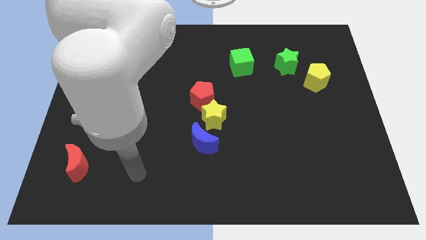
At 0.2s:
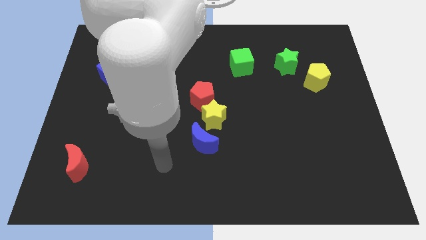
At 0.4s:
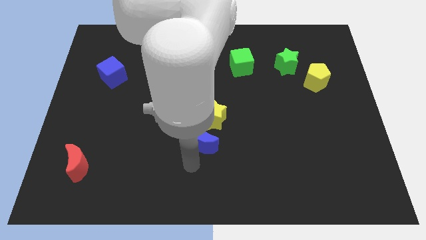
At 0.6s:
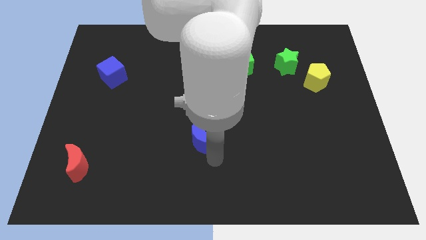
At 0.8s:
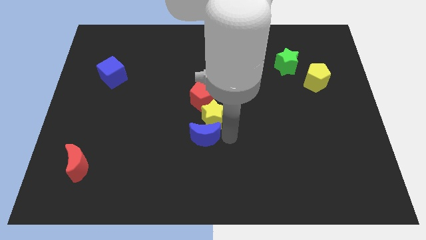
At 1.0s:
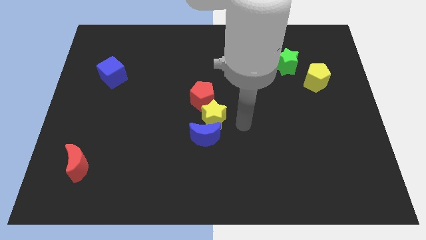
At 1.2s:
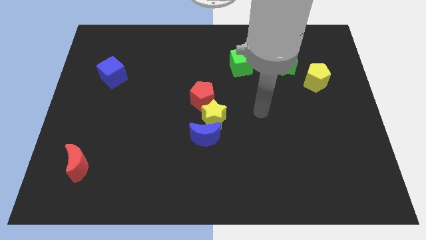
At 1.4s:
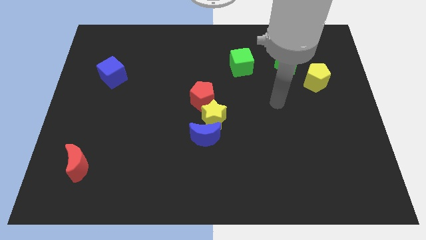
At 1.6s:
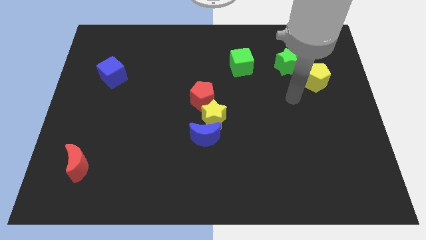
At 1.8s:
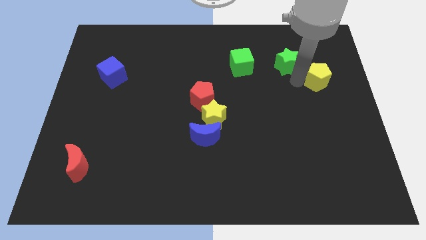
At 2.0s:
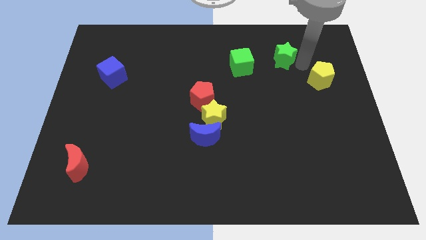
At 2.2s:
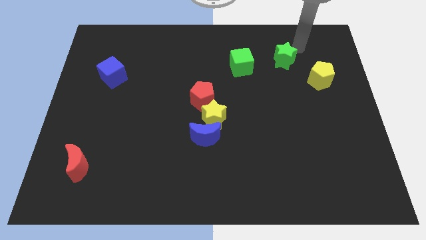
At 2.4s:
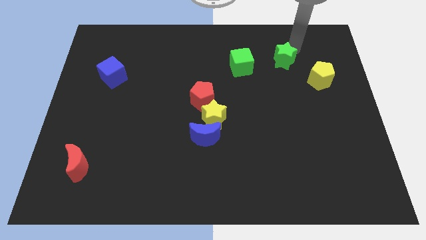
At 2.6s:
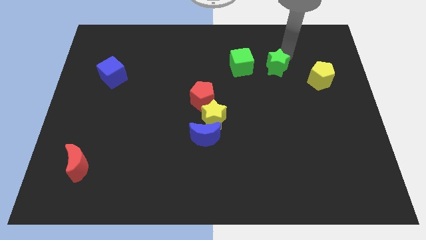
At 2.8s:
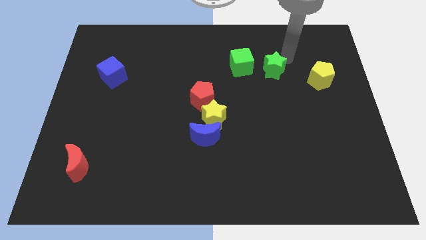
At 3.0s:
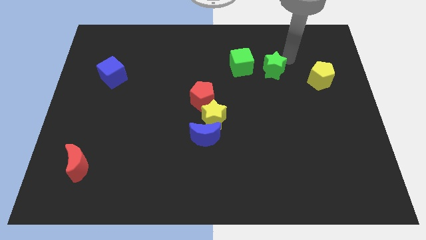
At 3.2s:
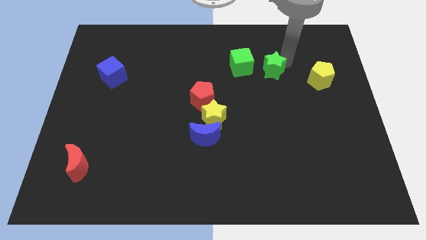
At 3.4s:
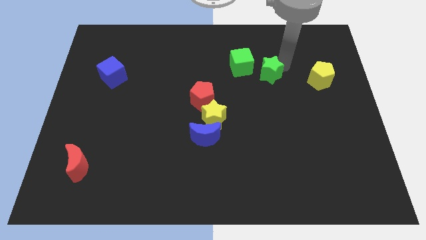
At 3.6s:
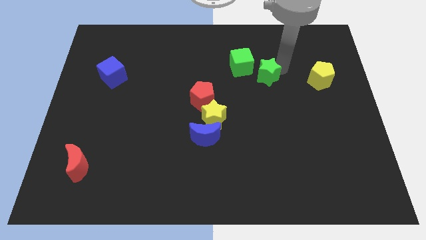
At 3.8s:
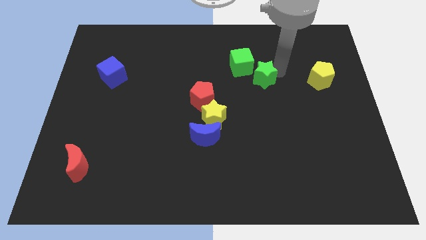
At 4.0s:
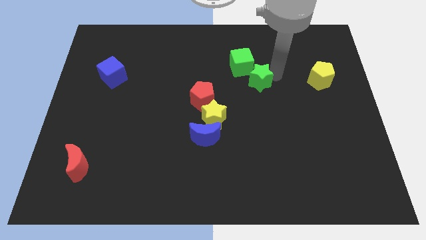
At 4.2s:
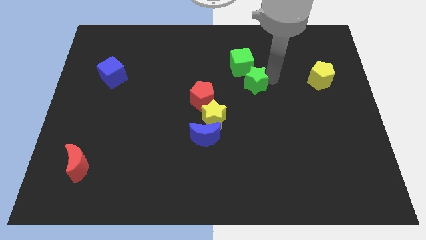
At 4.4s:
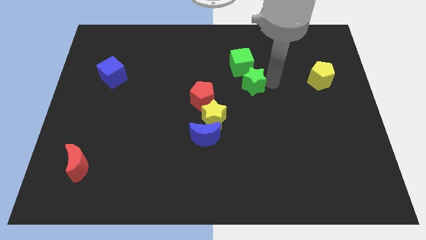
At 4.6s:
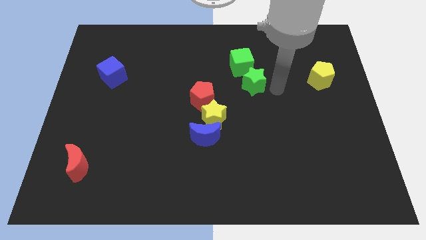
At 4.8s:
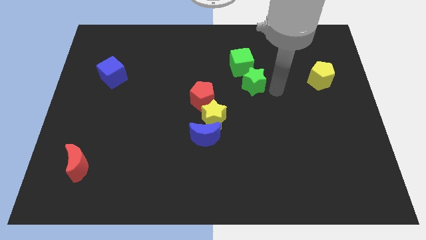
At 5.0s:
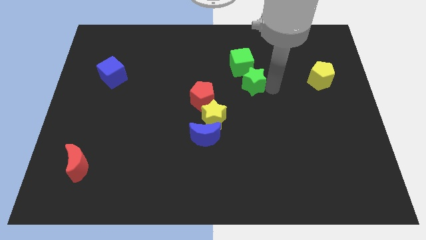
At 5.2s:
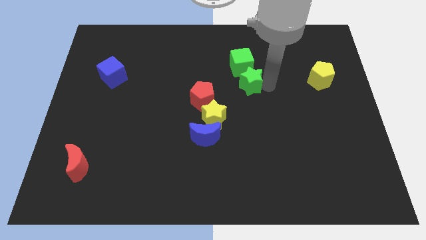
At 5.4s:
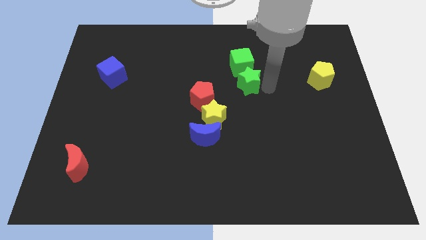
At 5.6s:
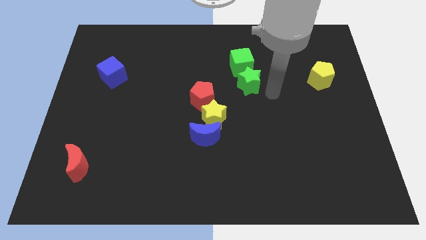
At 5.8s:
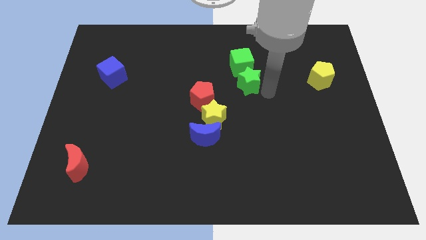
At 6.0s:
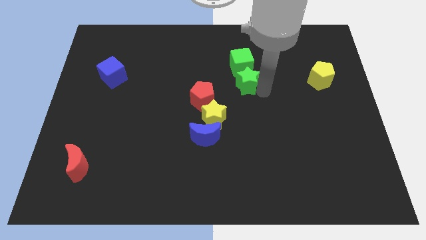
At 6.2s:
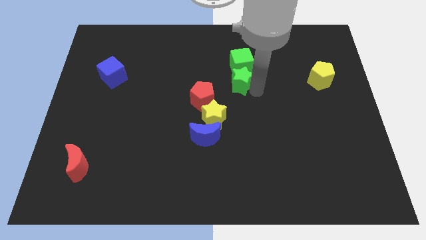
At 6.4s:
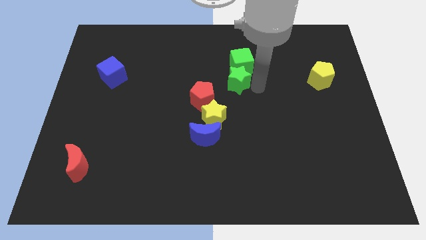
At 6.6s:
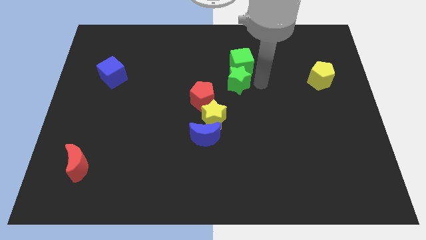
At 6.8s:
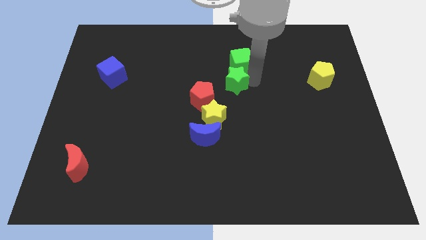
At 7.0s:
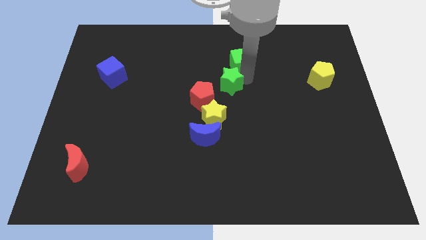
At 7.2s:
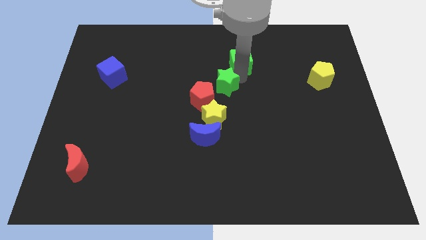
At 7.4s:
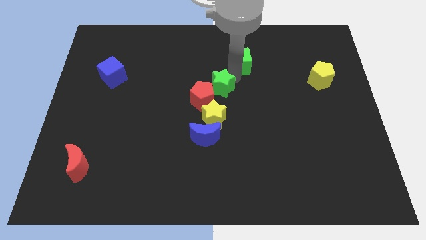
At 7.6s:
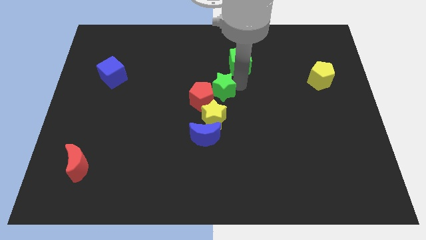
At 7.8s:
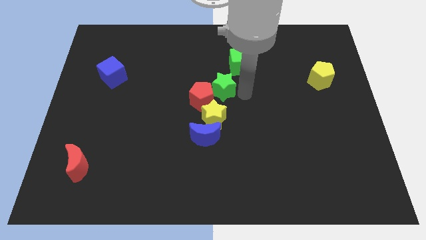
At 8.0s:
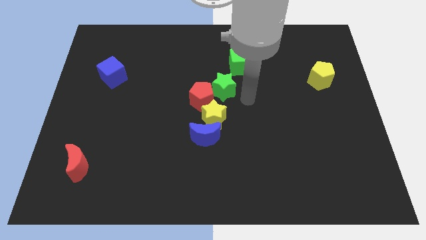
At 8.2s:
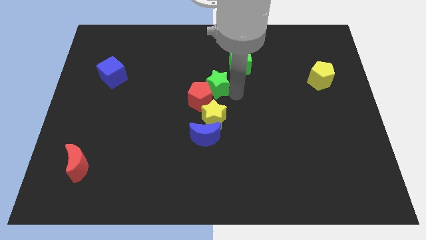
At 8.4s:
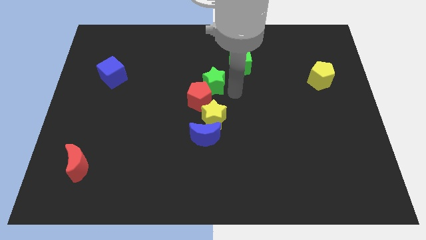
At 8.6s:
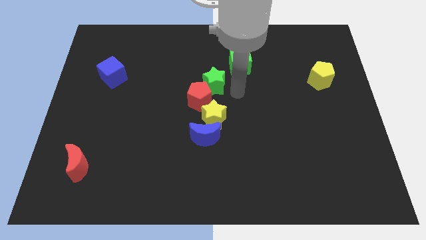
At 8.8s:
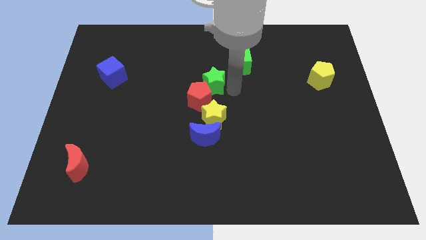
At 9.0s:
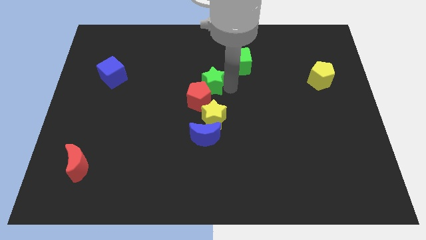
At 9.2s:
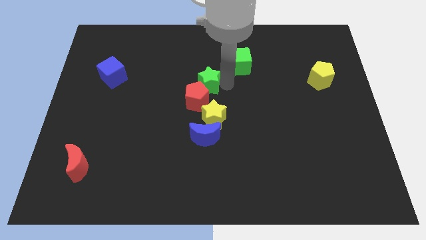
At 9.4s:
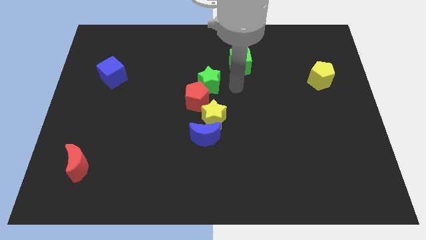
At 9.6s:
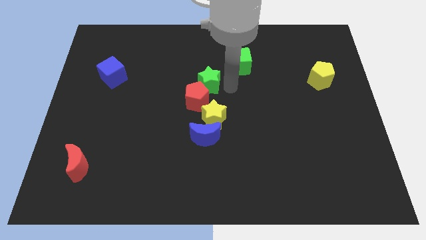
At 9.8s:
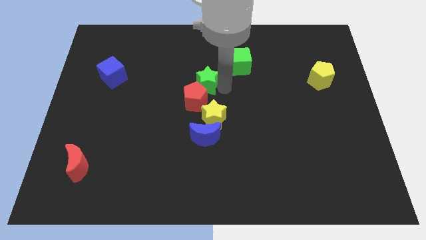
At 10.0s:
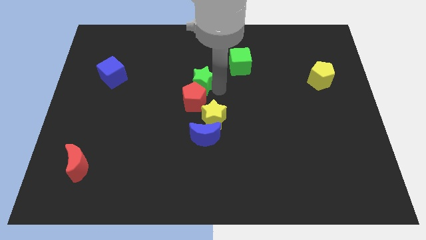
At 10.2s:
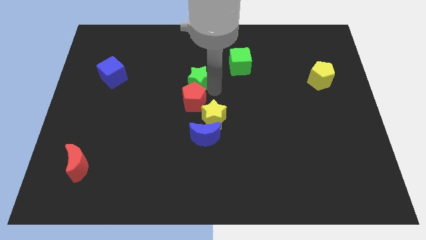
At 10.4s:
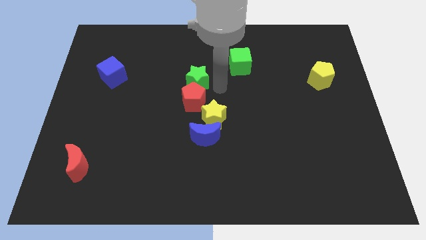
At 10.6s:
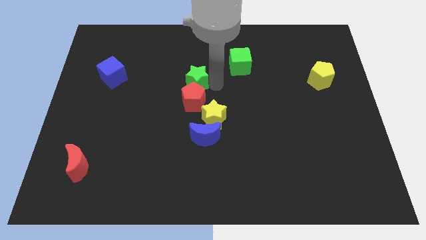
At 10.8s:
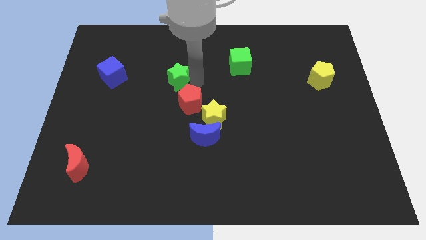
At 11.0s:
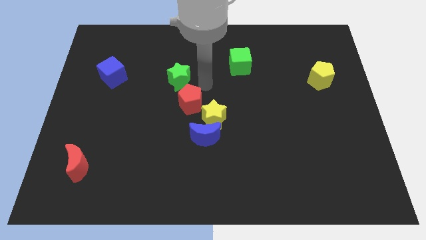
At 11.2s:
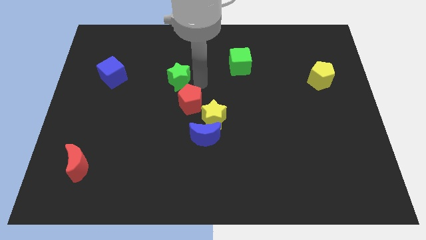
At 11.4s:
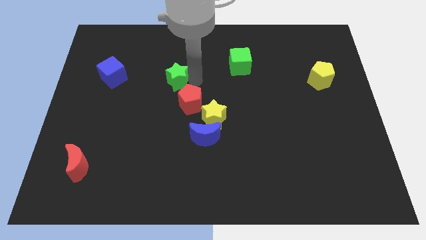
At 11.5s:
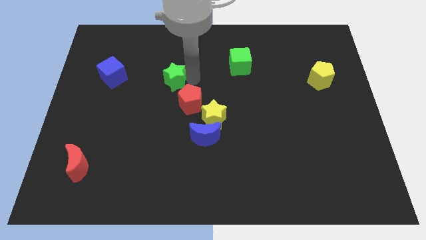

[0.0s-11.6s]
put the green star to the right of the blue cube

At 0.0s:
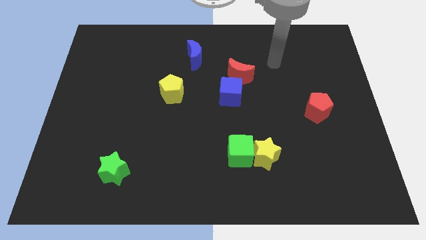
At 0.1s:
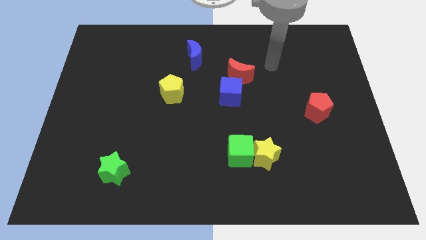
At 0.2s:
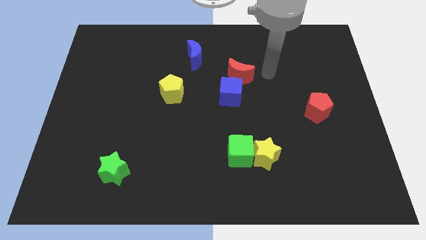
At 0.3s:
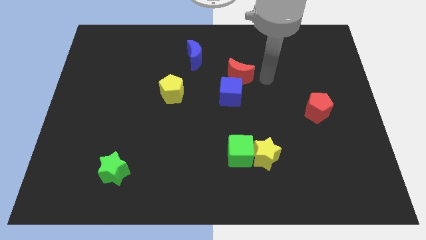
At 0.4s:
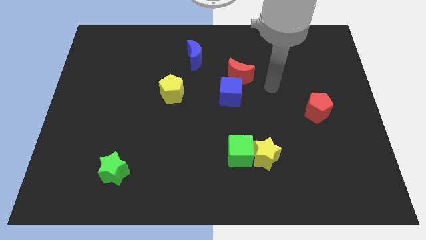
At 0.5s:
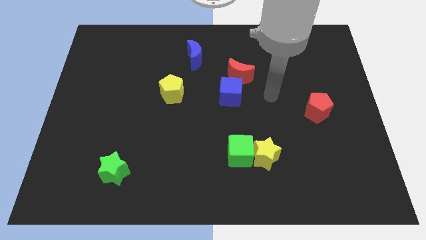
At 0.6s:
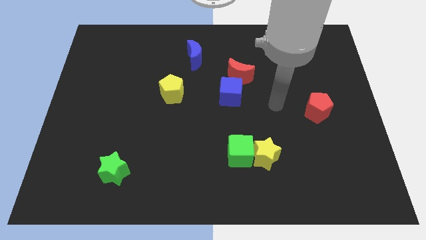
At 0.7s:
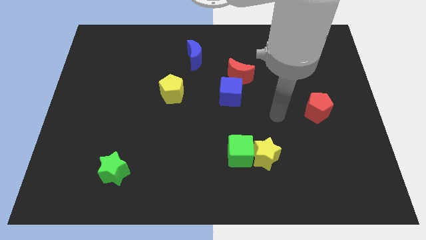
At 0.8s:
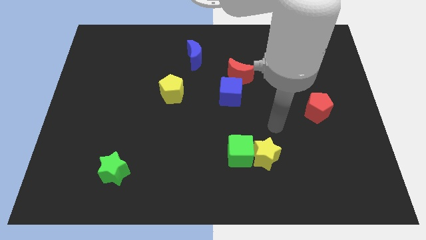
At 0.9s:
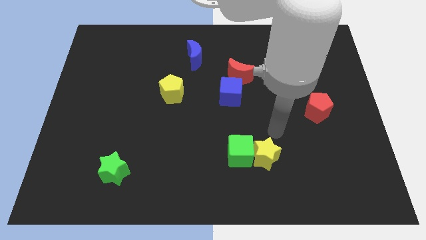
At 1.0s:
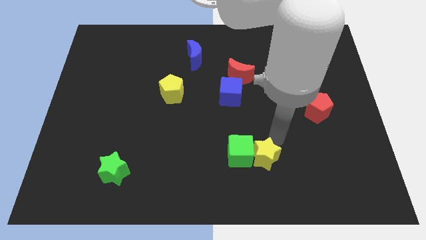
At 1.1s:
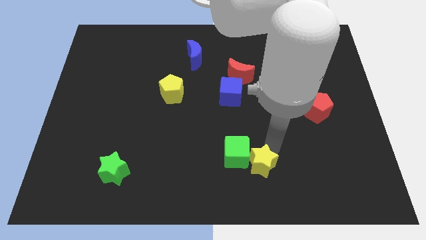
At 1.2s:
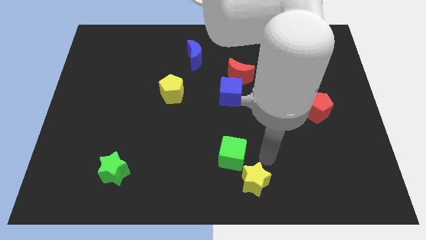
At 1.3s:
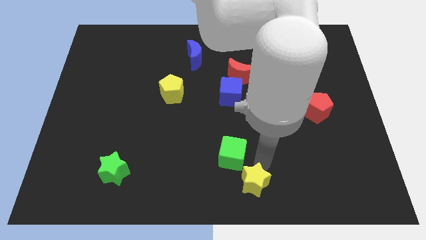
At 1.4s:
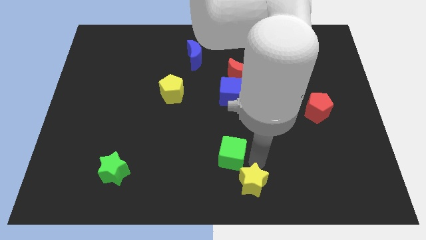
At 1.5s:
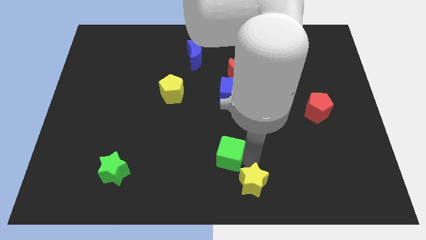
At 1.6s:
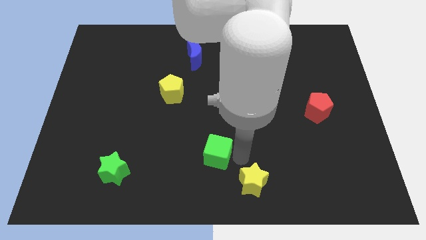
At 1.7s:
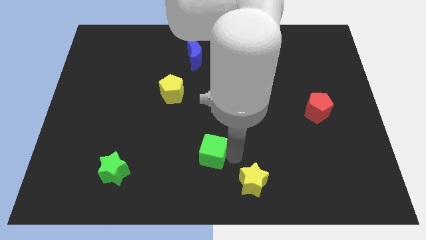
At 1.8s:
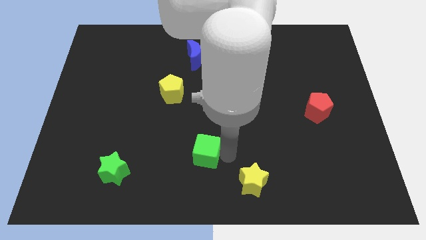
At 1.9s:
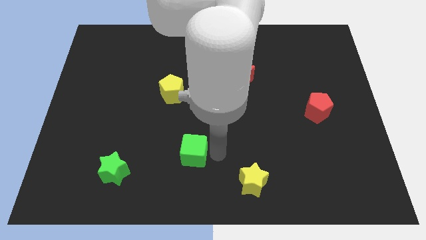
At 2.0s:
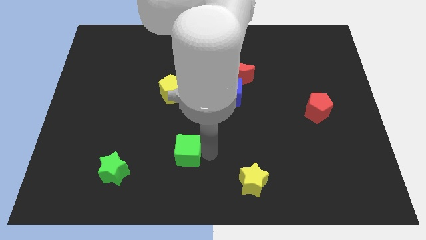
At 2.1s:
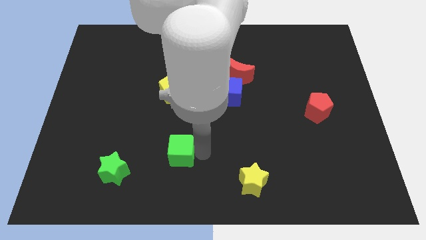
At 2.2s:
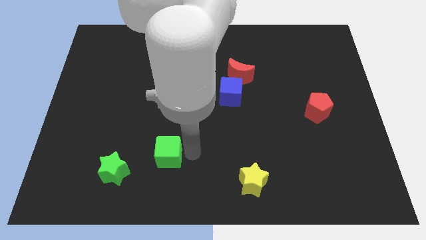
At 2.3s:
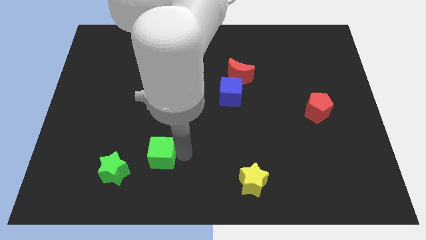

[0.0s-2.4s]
move the green cube to the top right side of the green star
